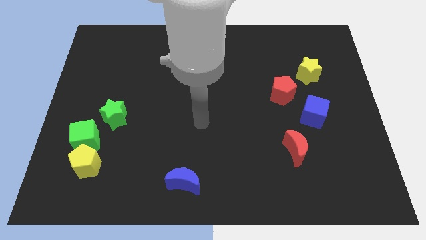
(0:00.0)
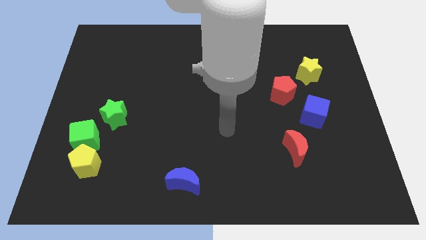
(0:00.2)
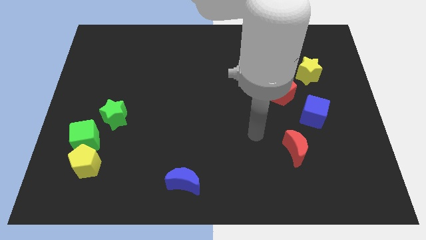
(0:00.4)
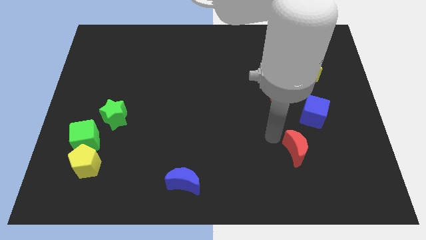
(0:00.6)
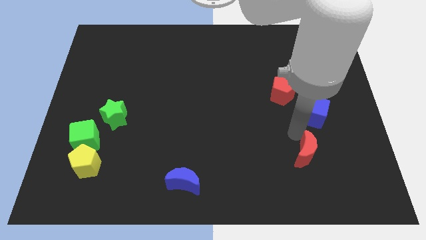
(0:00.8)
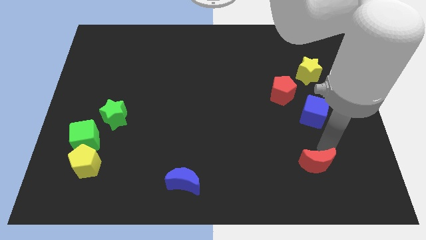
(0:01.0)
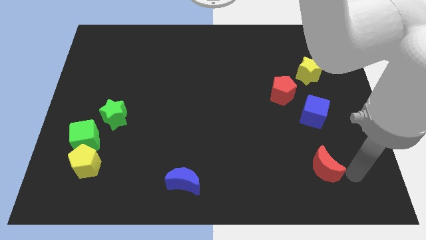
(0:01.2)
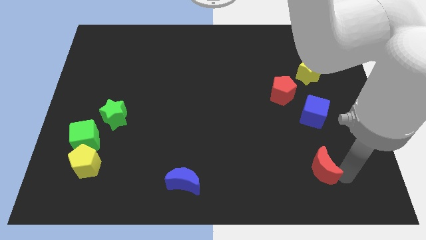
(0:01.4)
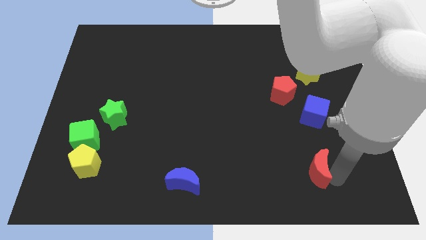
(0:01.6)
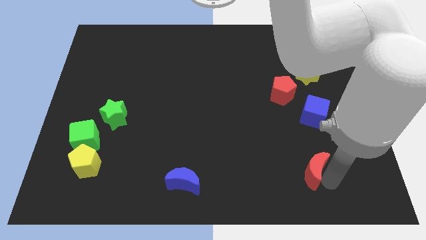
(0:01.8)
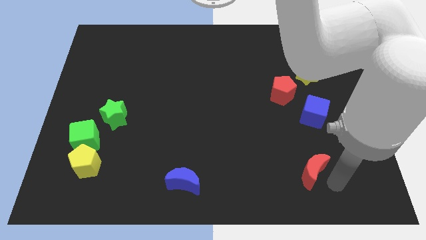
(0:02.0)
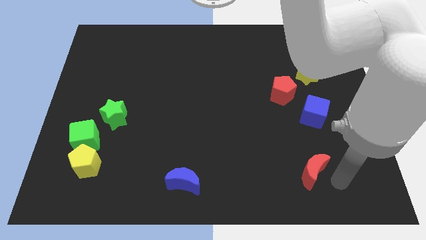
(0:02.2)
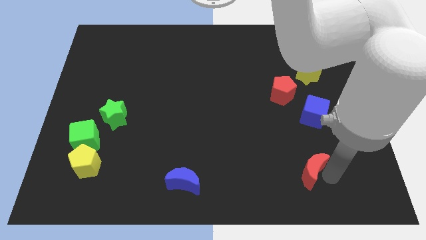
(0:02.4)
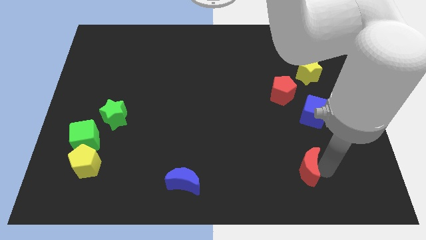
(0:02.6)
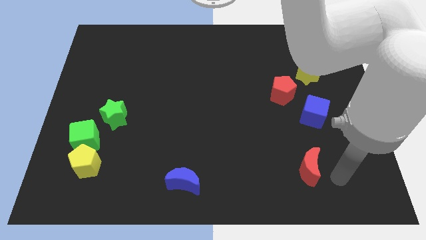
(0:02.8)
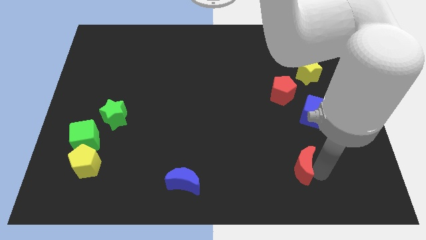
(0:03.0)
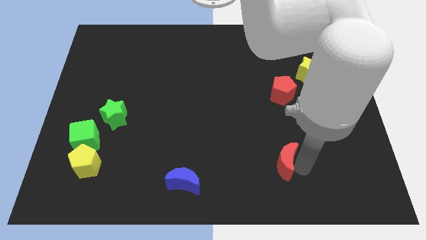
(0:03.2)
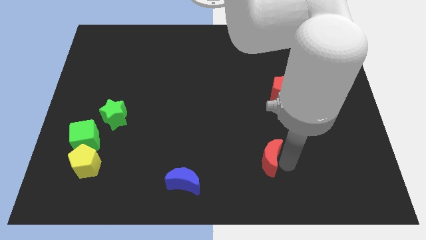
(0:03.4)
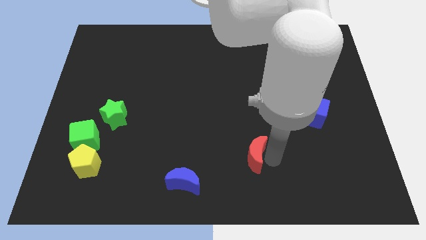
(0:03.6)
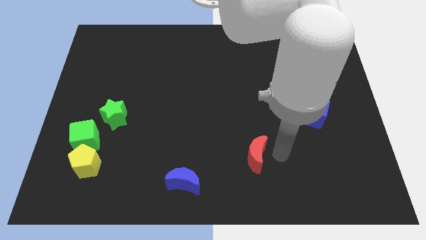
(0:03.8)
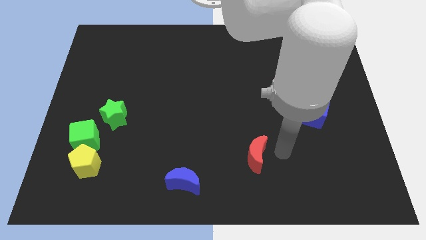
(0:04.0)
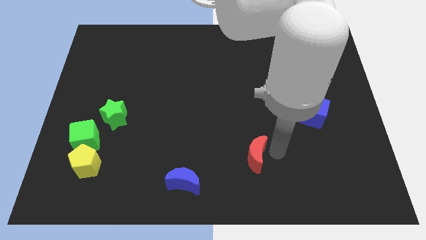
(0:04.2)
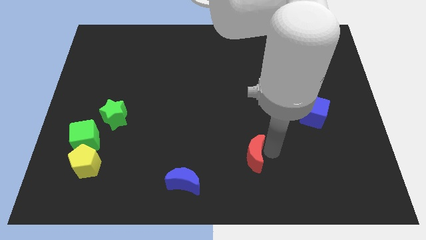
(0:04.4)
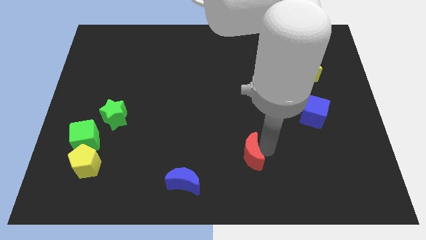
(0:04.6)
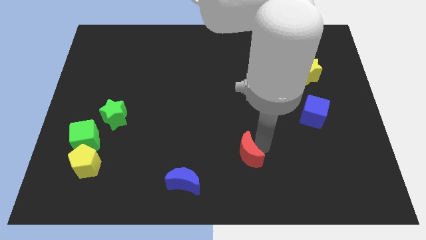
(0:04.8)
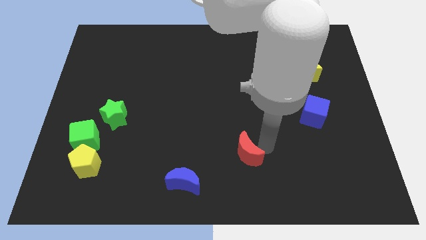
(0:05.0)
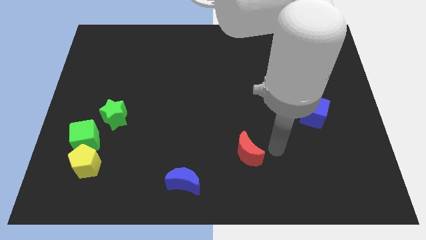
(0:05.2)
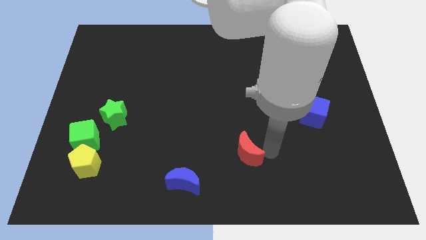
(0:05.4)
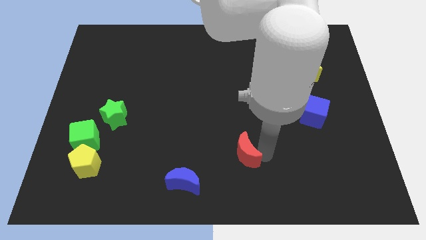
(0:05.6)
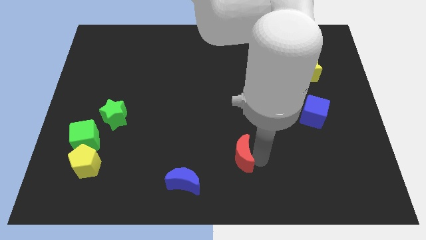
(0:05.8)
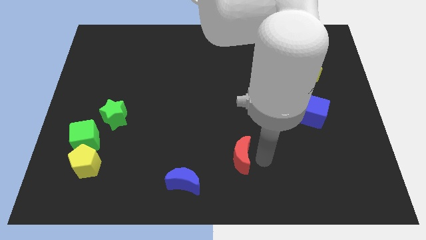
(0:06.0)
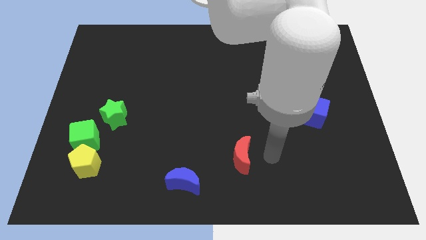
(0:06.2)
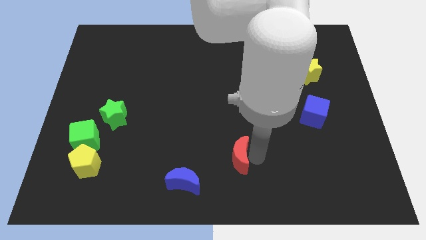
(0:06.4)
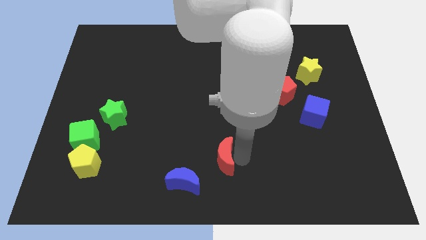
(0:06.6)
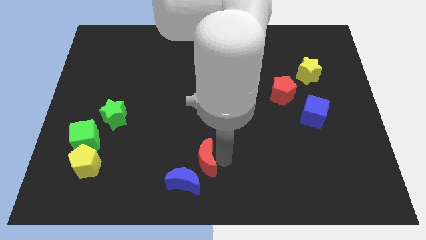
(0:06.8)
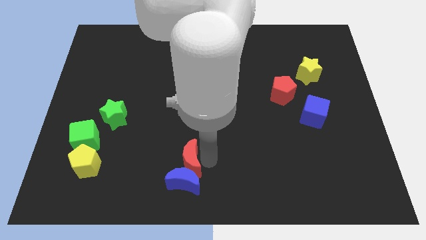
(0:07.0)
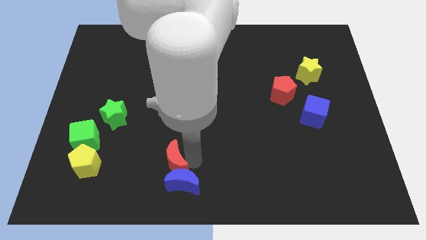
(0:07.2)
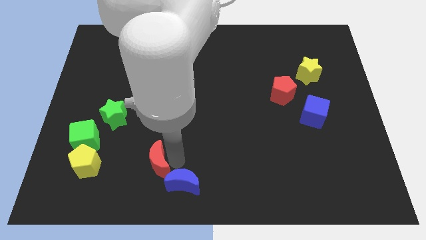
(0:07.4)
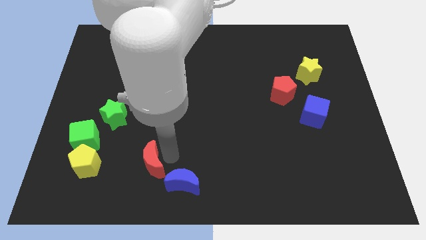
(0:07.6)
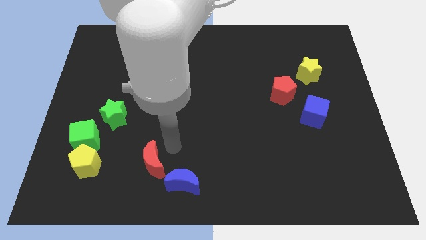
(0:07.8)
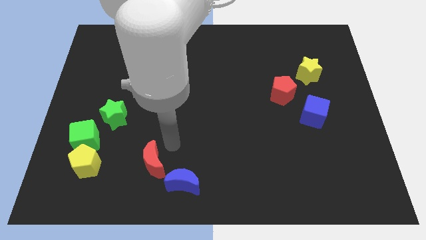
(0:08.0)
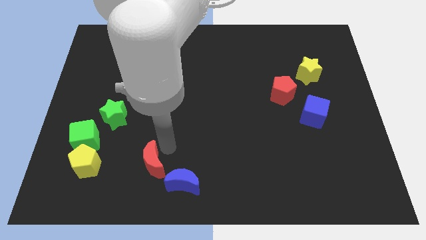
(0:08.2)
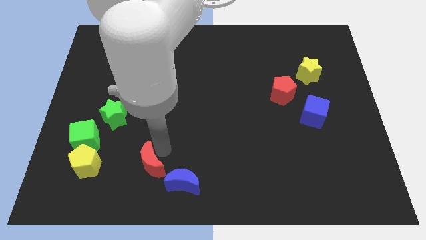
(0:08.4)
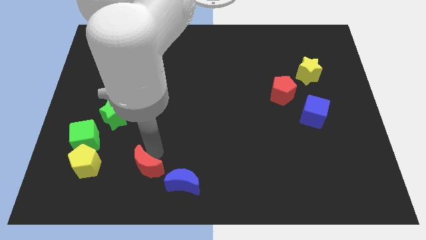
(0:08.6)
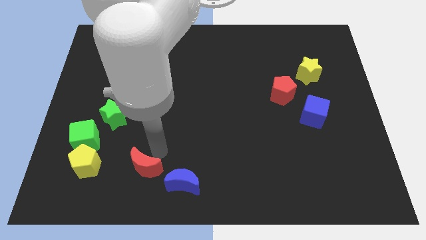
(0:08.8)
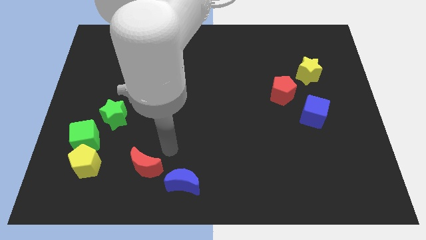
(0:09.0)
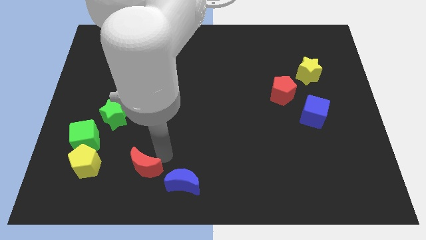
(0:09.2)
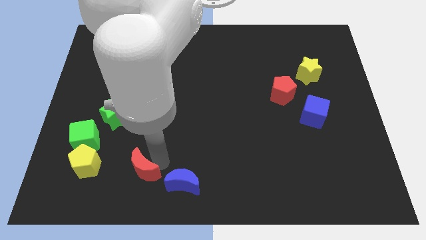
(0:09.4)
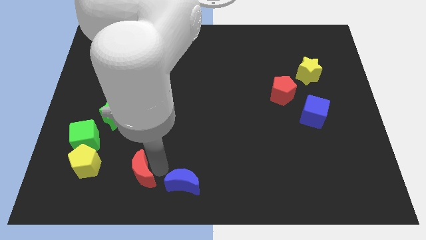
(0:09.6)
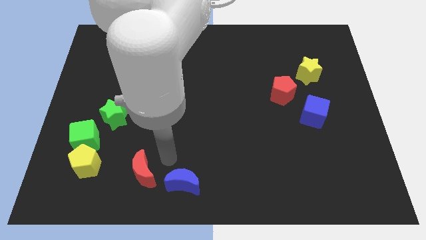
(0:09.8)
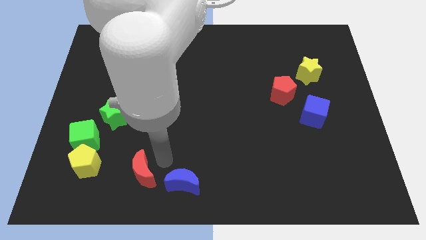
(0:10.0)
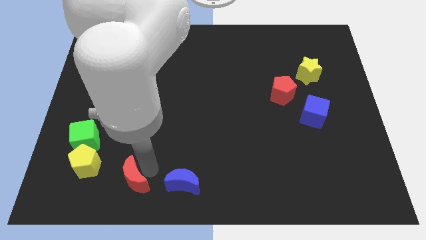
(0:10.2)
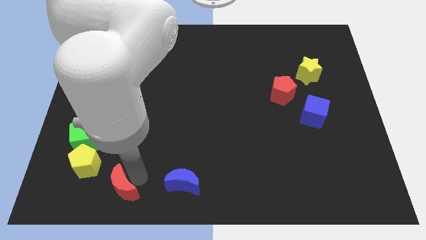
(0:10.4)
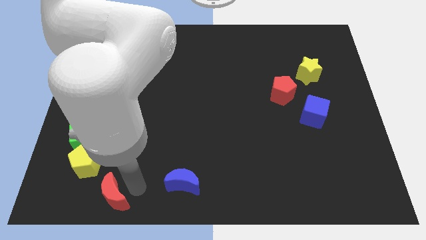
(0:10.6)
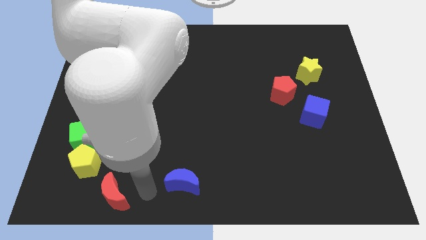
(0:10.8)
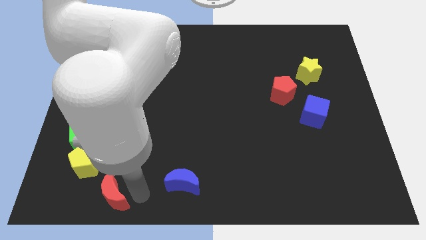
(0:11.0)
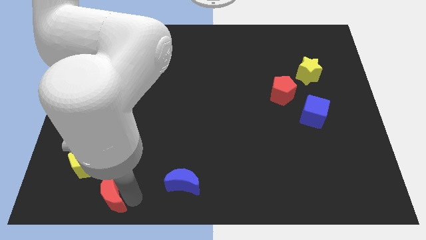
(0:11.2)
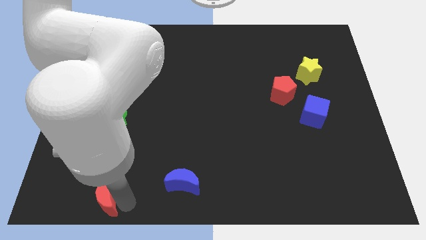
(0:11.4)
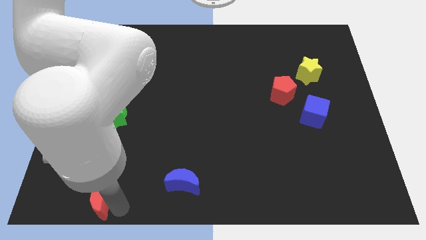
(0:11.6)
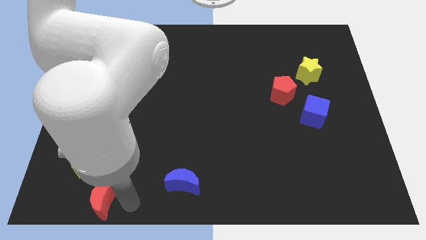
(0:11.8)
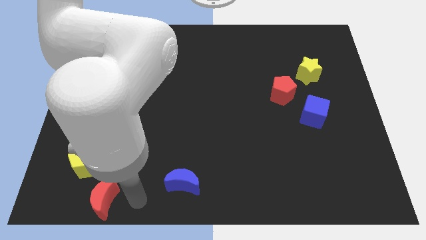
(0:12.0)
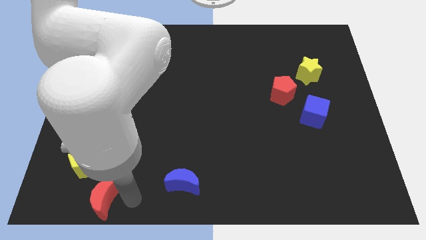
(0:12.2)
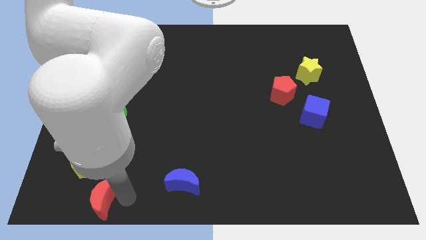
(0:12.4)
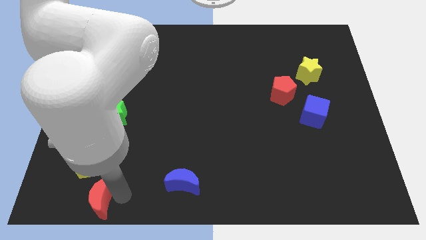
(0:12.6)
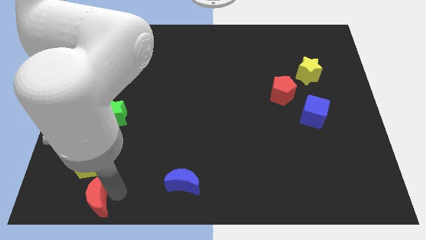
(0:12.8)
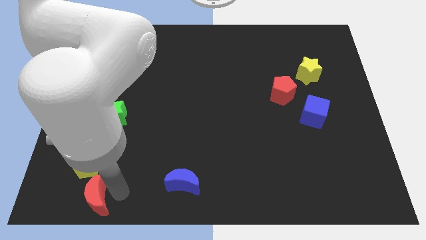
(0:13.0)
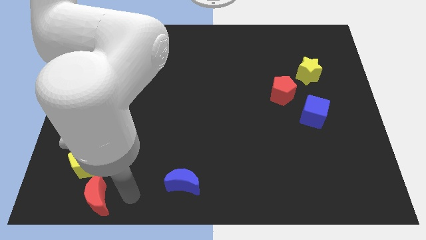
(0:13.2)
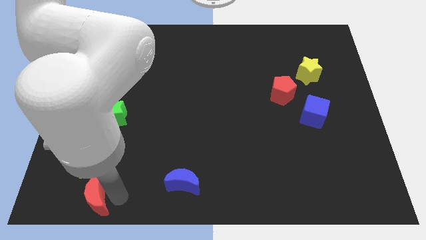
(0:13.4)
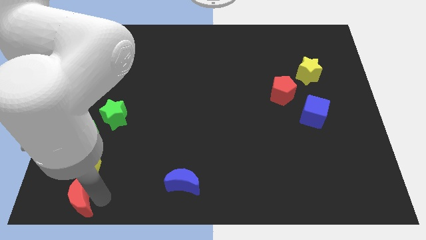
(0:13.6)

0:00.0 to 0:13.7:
move the red moon to the bottom left corner

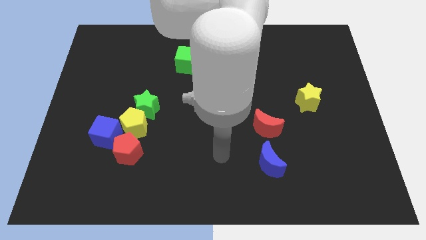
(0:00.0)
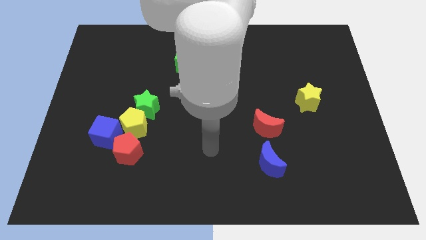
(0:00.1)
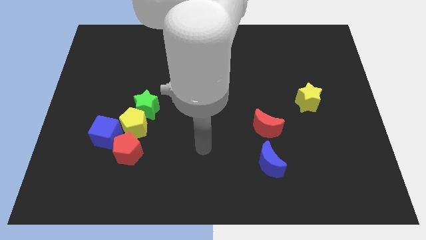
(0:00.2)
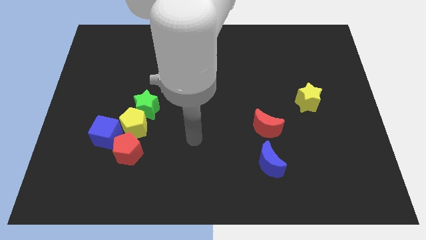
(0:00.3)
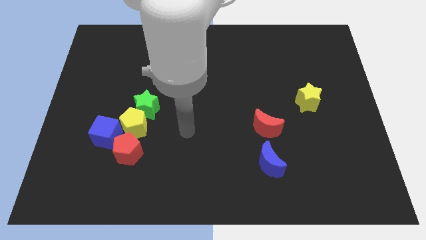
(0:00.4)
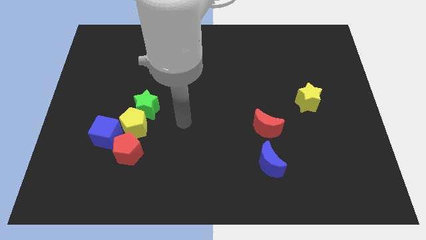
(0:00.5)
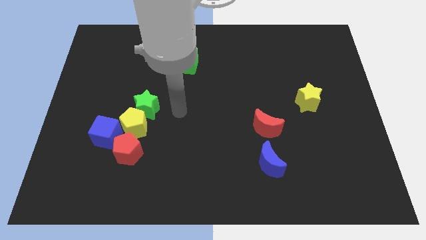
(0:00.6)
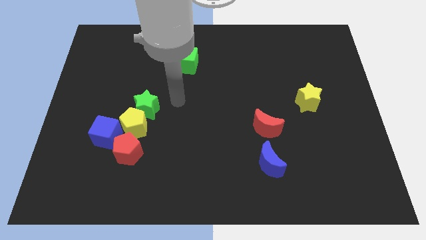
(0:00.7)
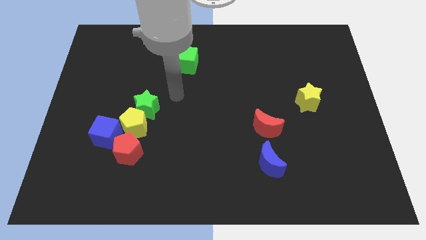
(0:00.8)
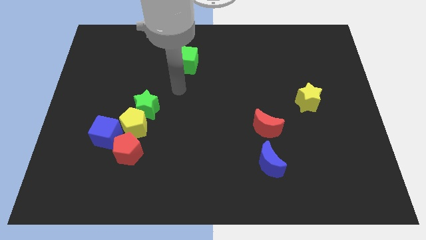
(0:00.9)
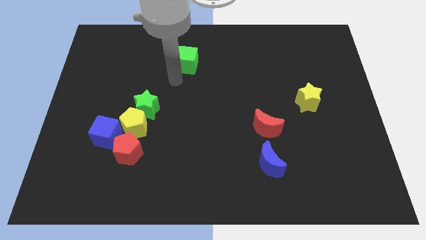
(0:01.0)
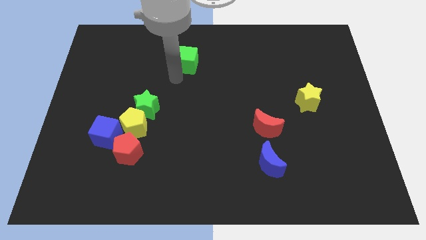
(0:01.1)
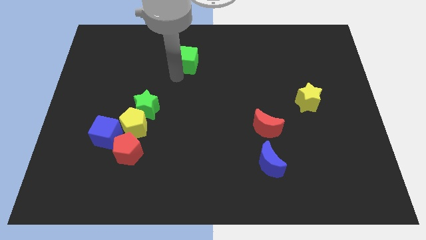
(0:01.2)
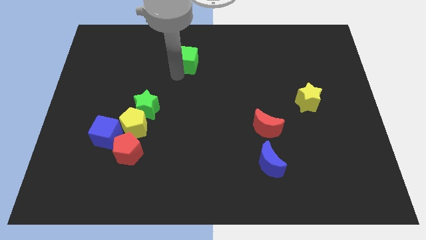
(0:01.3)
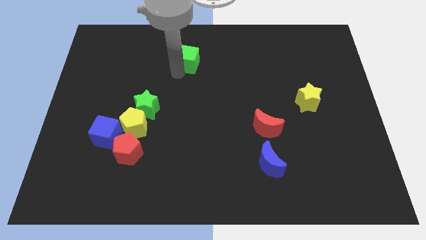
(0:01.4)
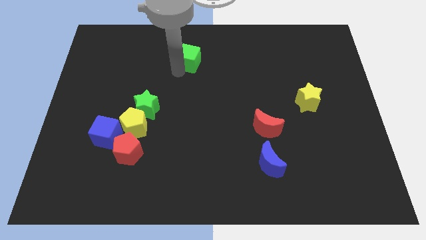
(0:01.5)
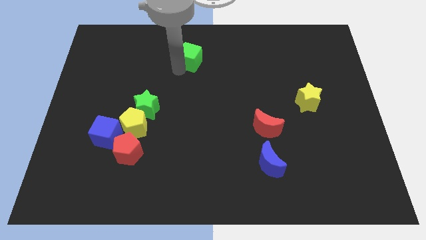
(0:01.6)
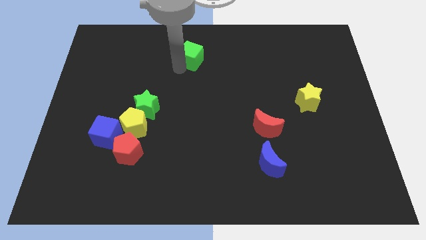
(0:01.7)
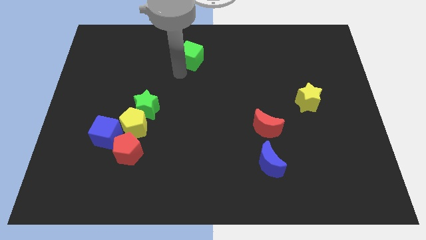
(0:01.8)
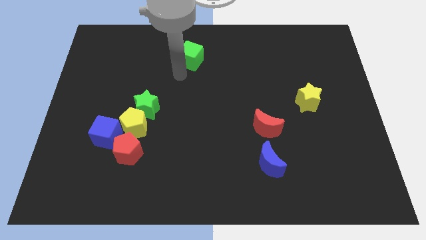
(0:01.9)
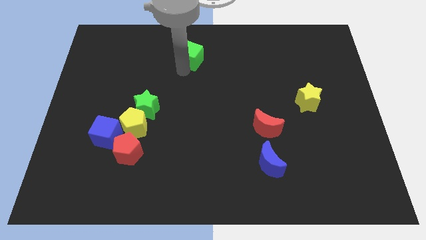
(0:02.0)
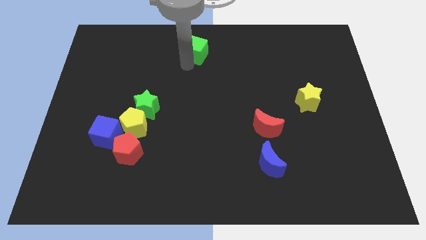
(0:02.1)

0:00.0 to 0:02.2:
push the green cube to the top side
